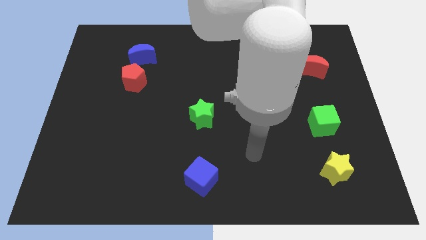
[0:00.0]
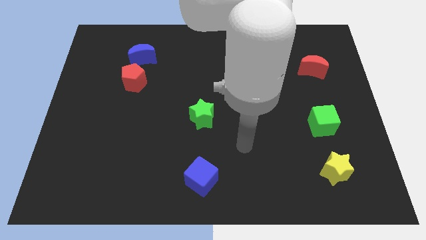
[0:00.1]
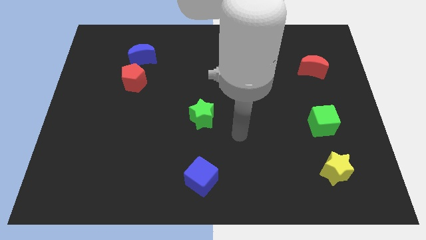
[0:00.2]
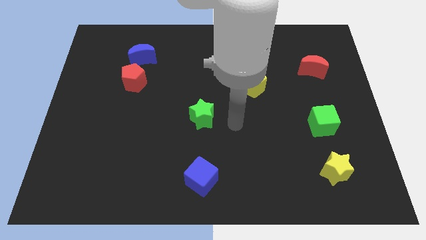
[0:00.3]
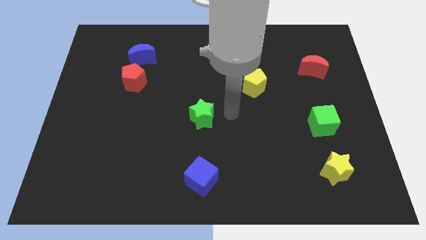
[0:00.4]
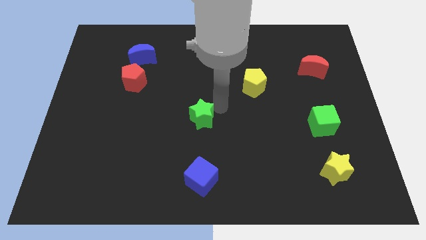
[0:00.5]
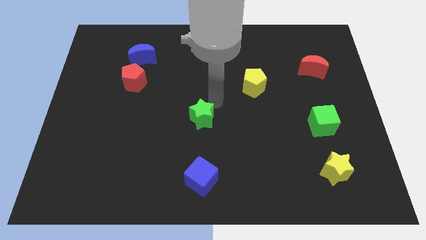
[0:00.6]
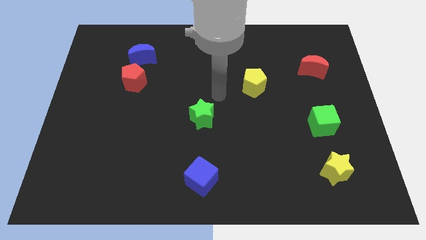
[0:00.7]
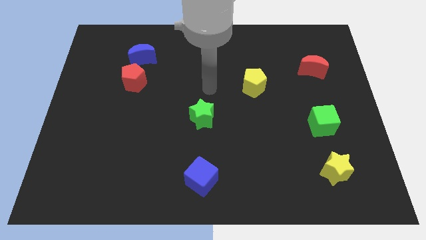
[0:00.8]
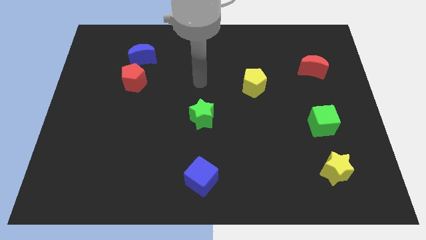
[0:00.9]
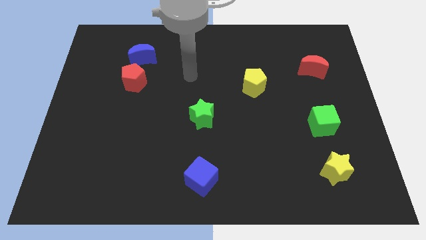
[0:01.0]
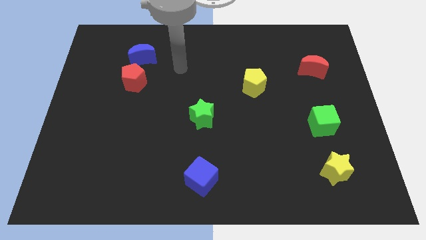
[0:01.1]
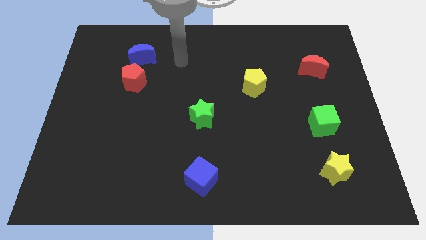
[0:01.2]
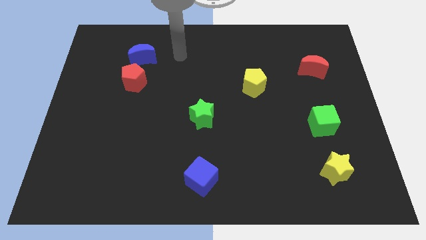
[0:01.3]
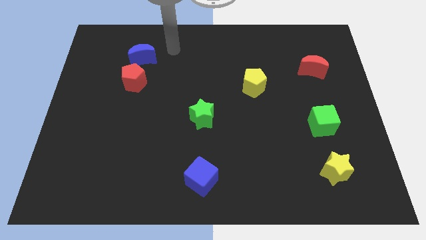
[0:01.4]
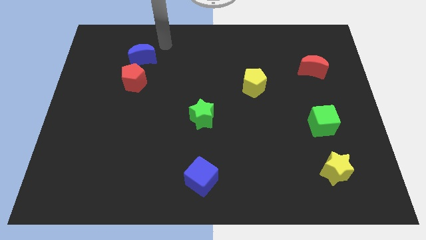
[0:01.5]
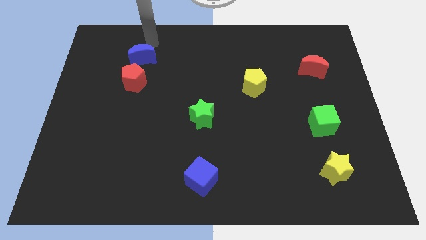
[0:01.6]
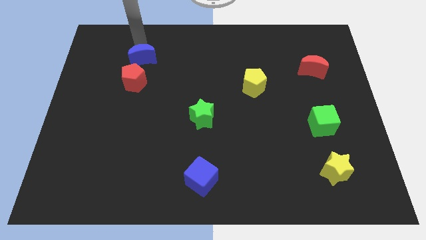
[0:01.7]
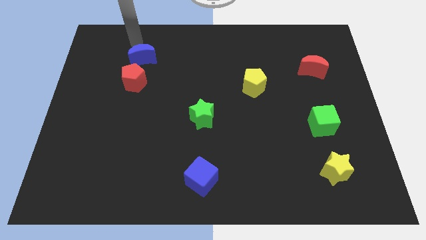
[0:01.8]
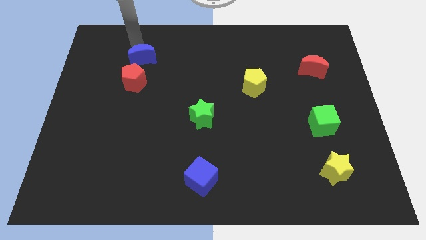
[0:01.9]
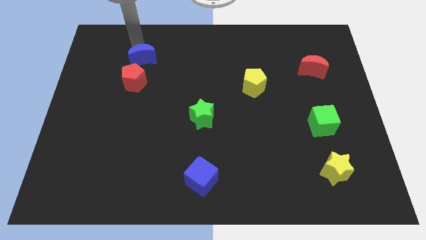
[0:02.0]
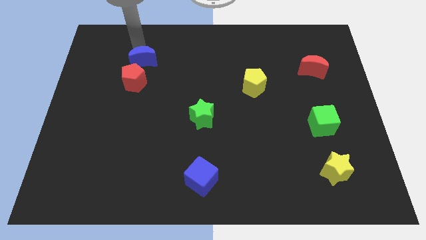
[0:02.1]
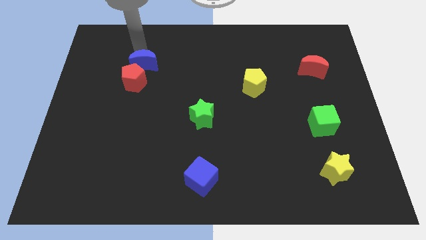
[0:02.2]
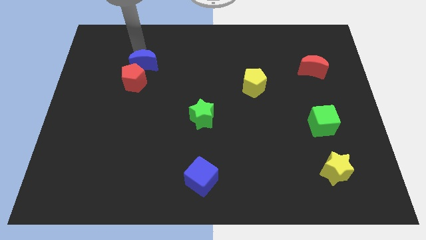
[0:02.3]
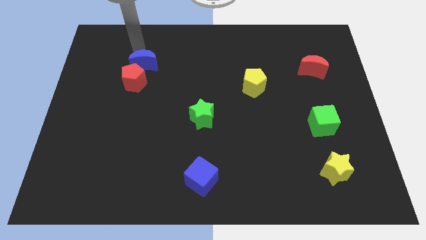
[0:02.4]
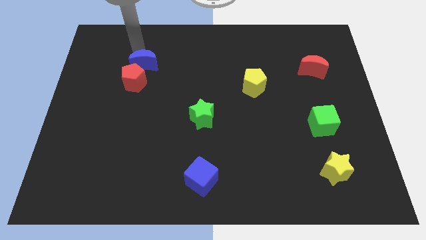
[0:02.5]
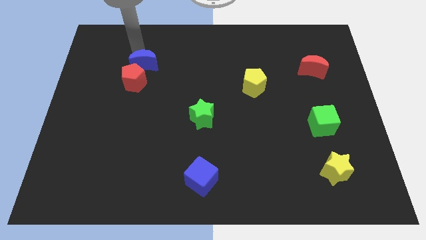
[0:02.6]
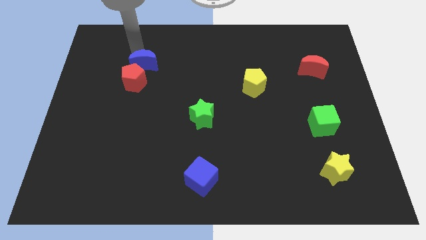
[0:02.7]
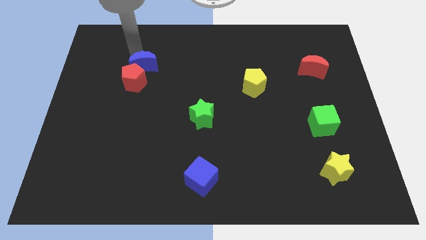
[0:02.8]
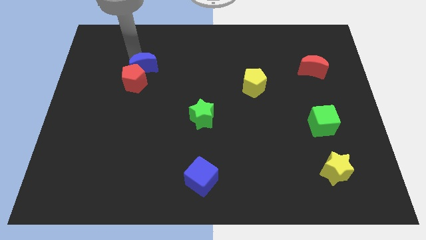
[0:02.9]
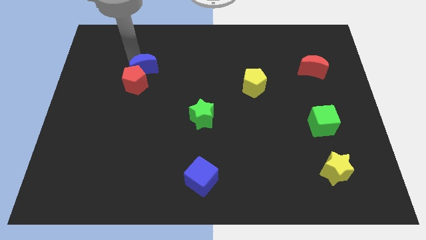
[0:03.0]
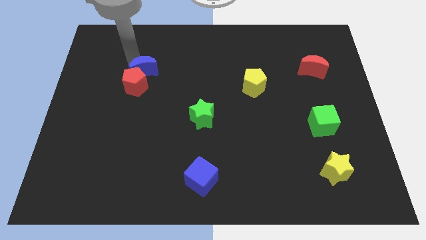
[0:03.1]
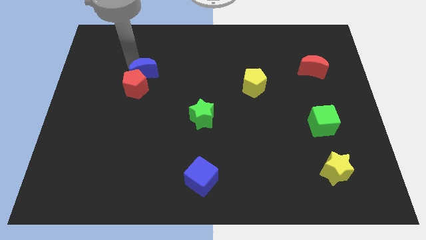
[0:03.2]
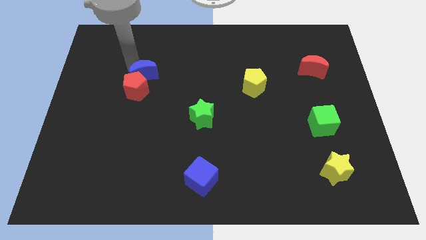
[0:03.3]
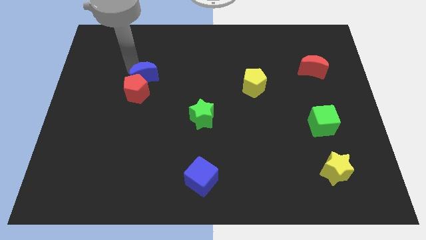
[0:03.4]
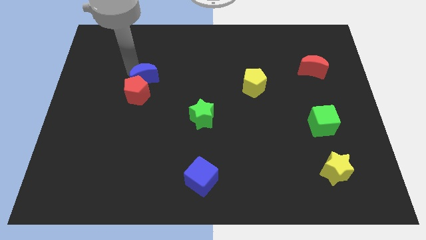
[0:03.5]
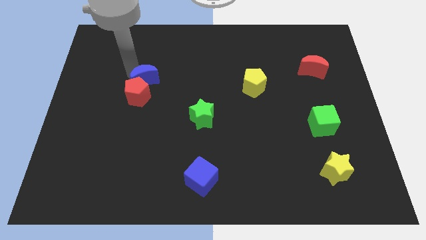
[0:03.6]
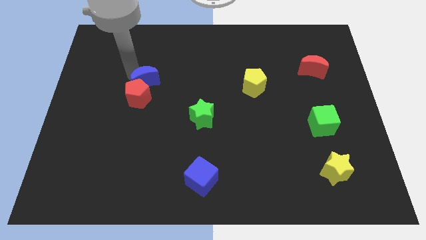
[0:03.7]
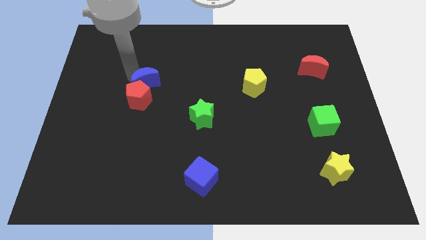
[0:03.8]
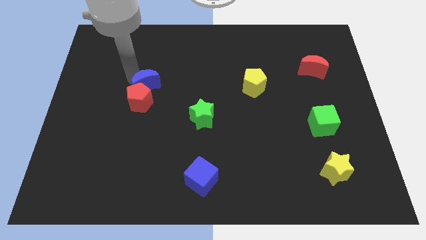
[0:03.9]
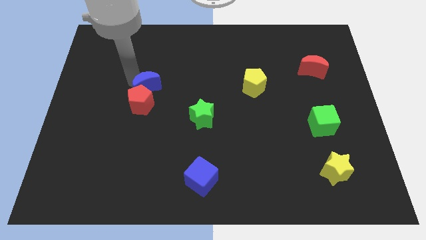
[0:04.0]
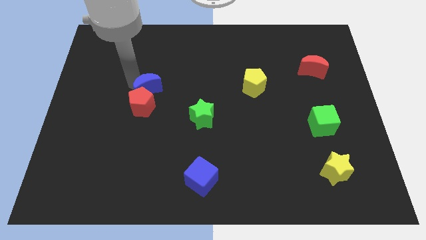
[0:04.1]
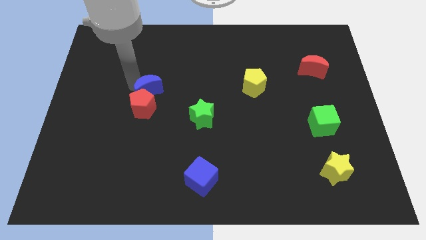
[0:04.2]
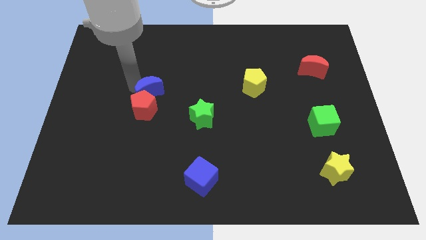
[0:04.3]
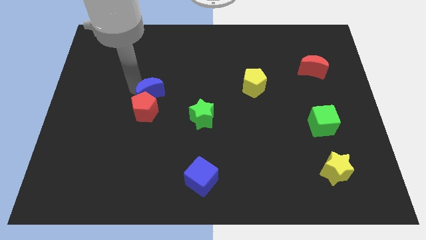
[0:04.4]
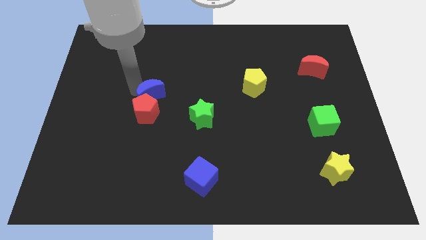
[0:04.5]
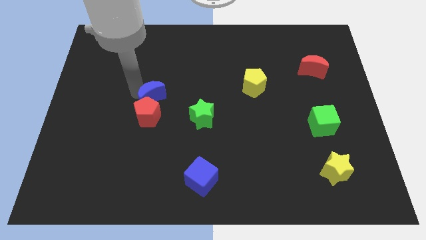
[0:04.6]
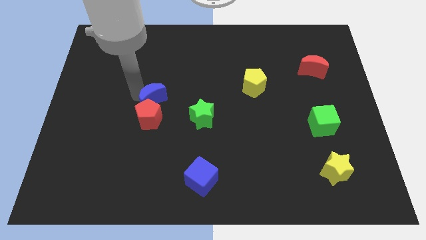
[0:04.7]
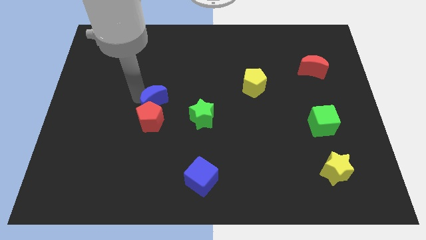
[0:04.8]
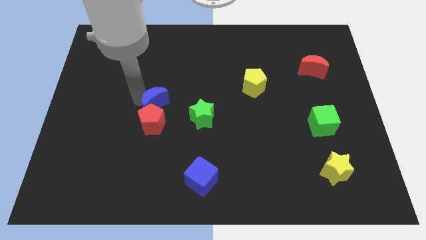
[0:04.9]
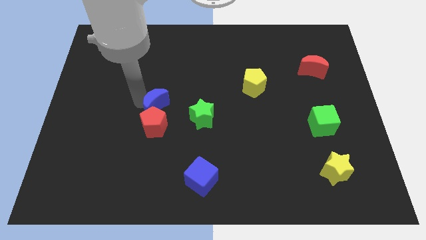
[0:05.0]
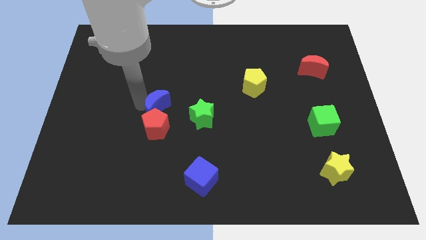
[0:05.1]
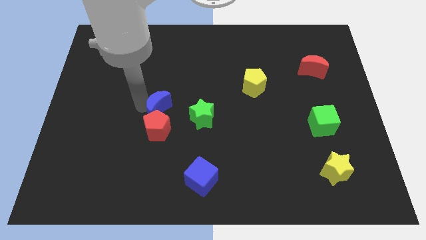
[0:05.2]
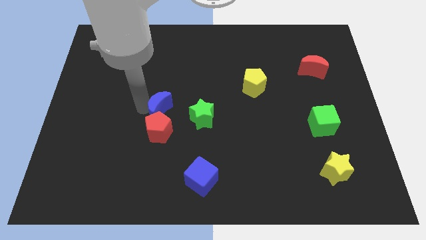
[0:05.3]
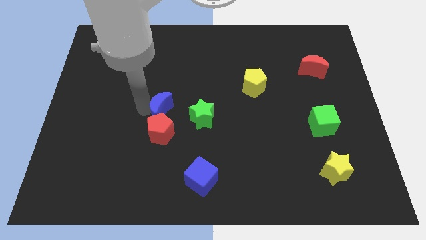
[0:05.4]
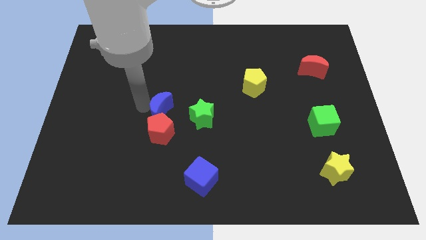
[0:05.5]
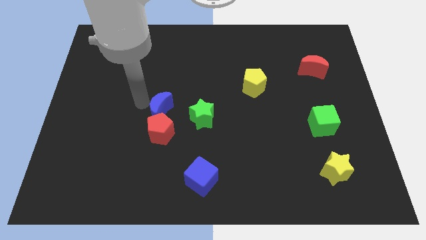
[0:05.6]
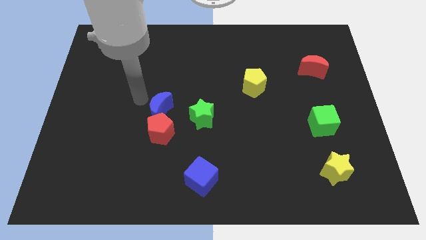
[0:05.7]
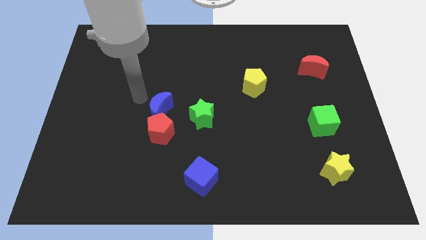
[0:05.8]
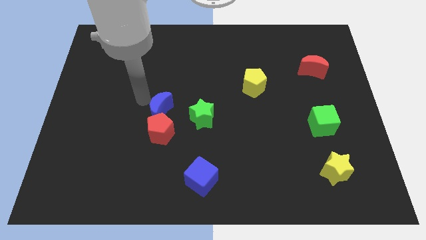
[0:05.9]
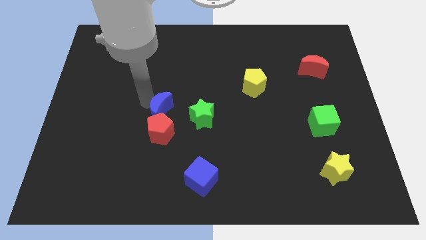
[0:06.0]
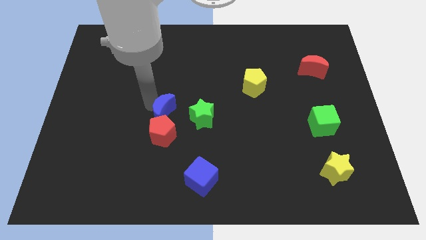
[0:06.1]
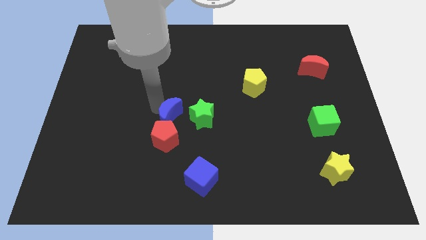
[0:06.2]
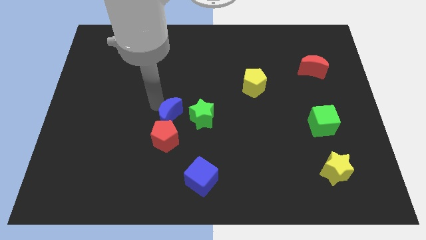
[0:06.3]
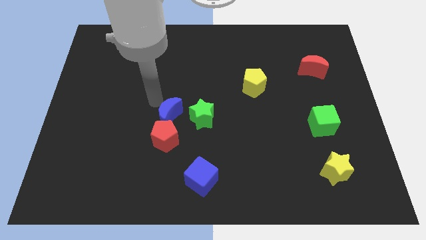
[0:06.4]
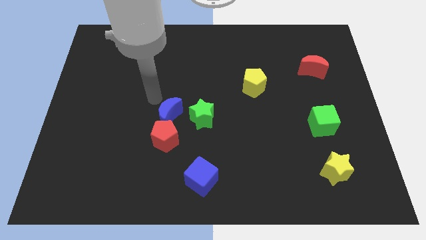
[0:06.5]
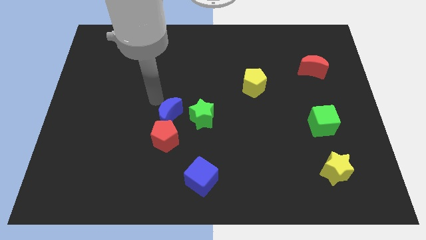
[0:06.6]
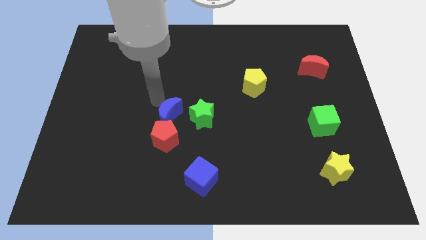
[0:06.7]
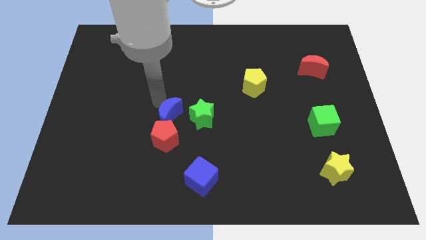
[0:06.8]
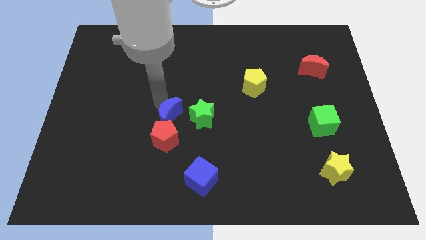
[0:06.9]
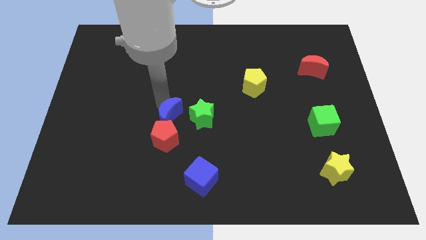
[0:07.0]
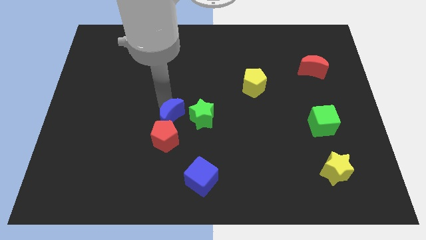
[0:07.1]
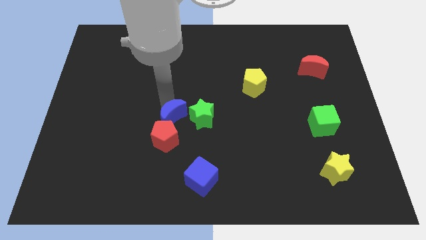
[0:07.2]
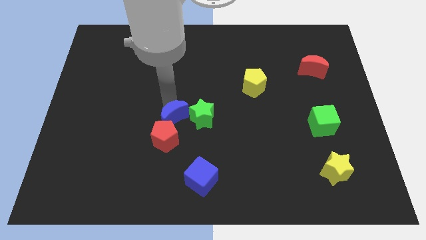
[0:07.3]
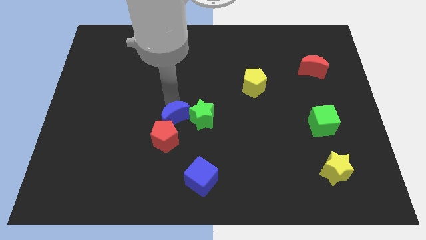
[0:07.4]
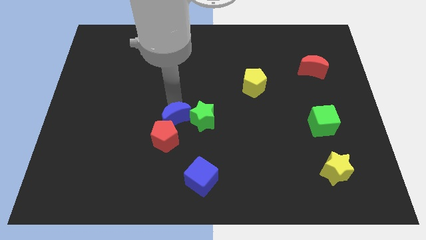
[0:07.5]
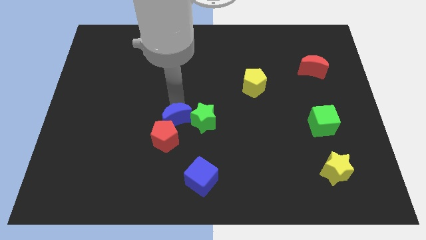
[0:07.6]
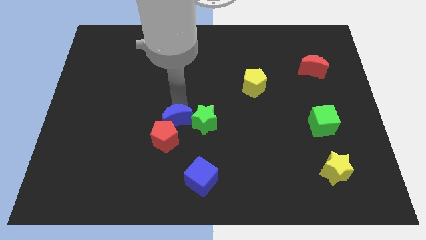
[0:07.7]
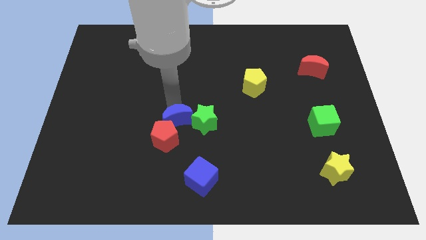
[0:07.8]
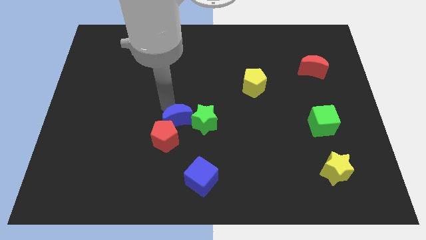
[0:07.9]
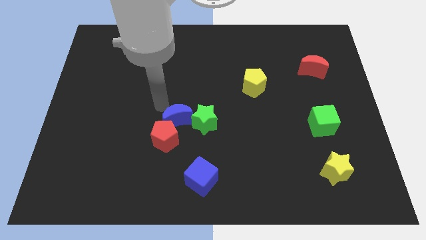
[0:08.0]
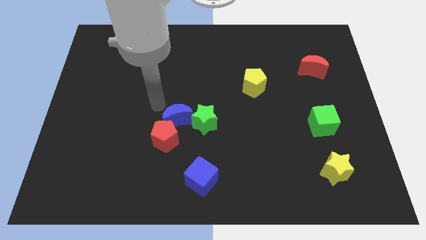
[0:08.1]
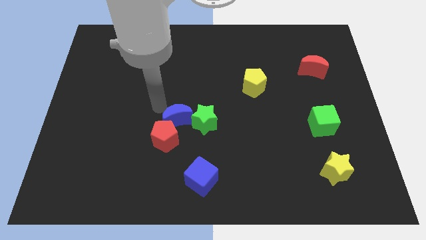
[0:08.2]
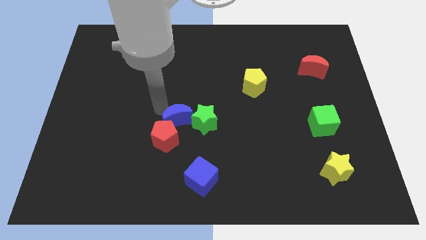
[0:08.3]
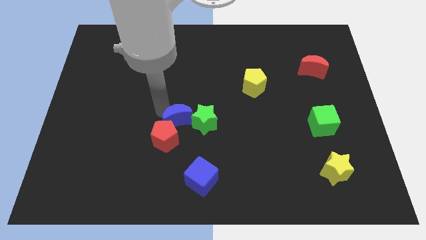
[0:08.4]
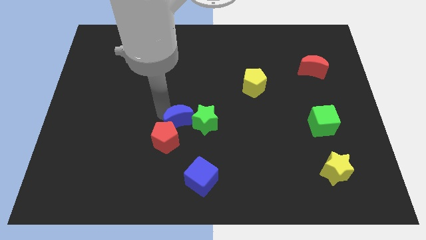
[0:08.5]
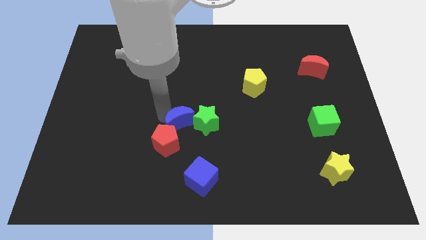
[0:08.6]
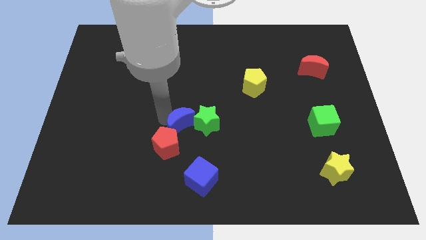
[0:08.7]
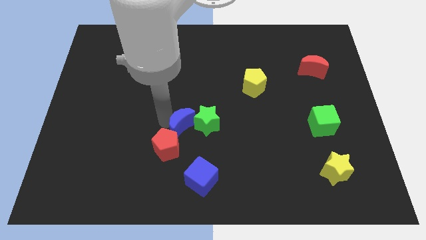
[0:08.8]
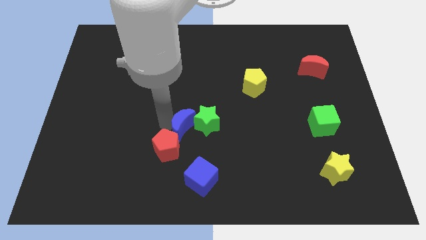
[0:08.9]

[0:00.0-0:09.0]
move the blue moon to the top of the blue cube
